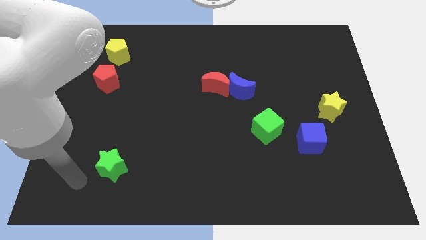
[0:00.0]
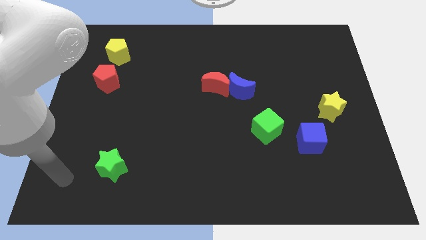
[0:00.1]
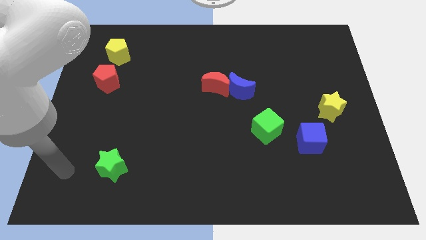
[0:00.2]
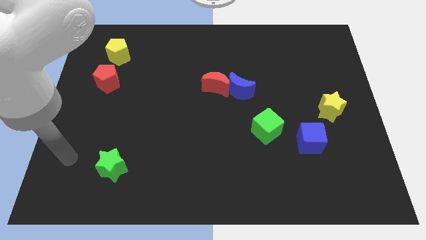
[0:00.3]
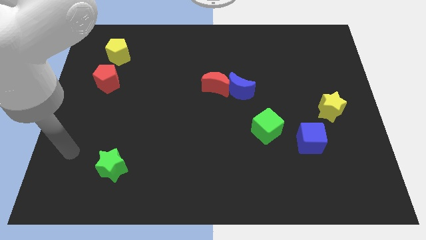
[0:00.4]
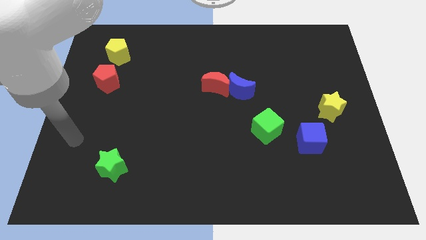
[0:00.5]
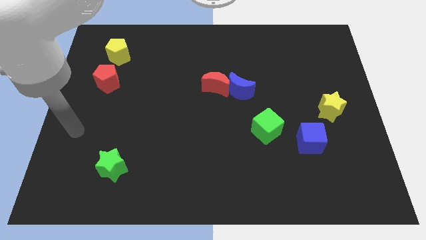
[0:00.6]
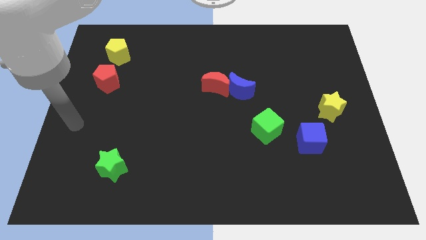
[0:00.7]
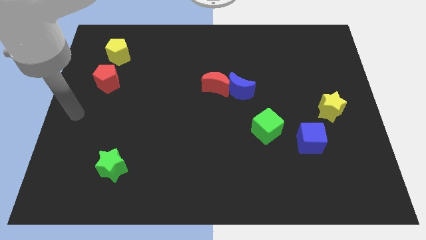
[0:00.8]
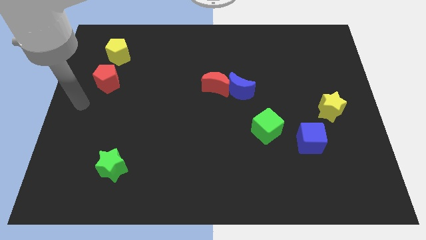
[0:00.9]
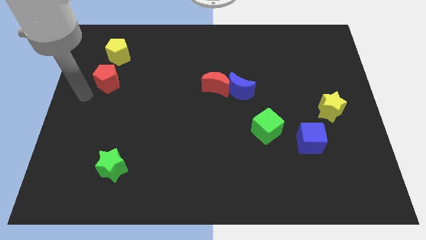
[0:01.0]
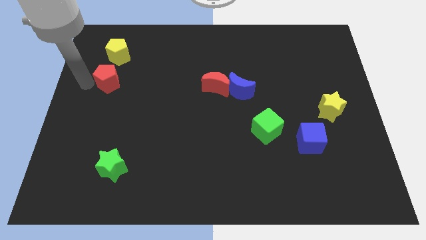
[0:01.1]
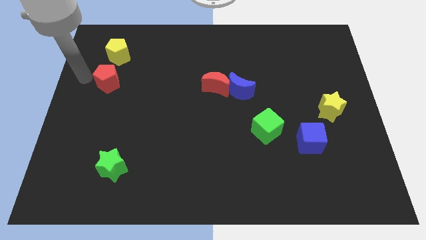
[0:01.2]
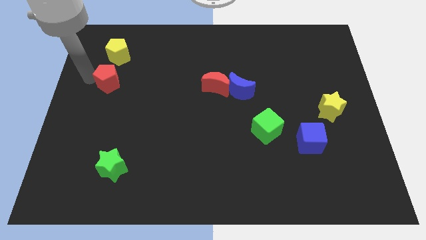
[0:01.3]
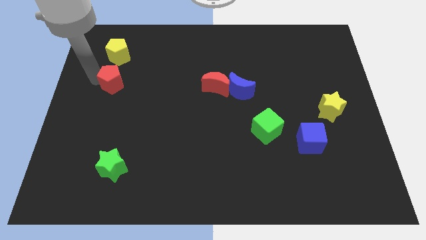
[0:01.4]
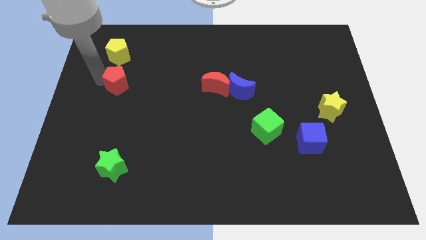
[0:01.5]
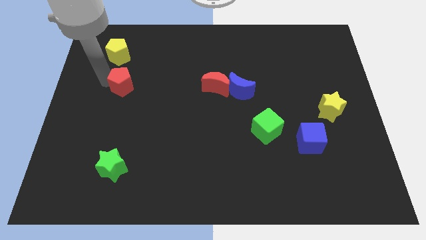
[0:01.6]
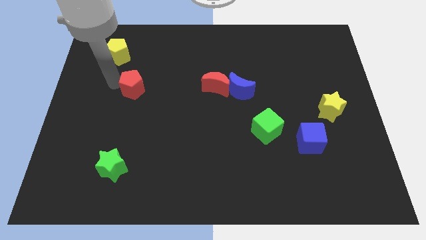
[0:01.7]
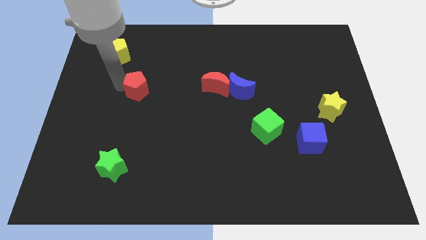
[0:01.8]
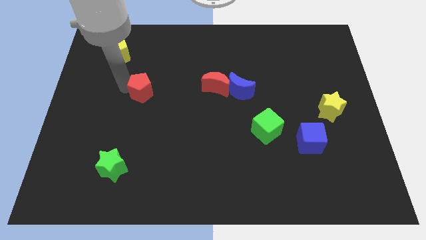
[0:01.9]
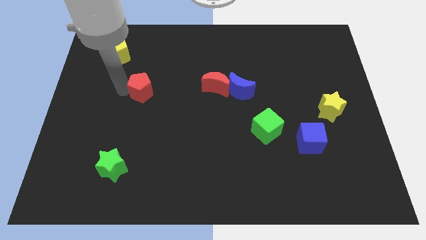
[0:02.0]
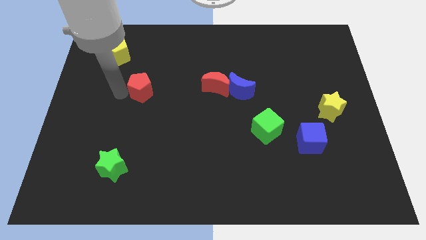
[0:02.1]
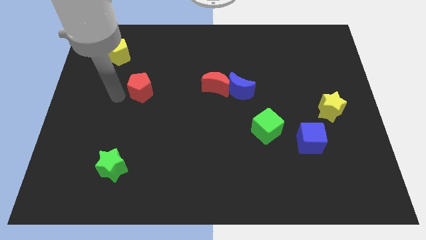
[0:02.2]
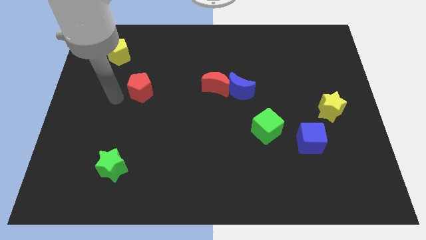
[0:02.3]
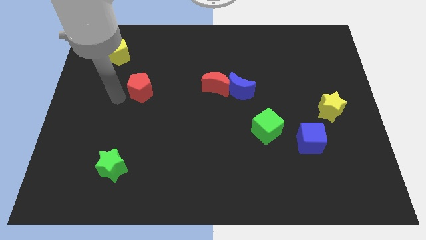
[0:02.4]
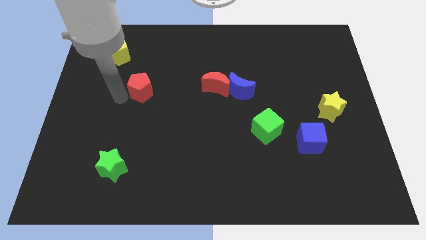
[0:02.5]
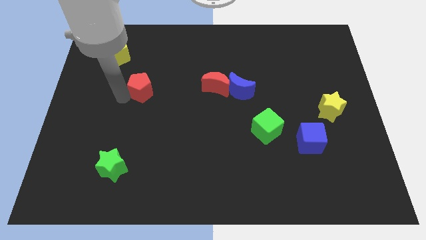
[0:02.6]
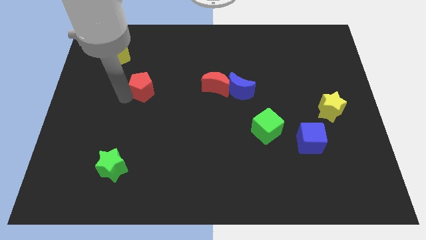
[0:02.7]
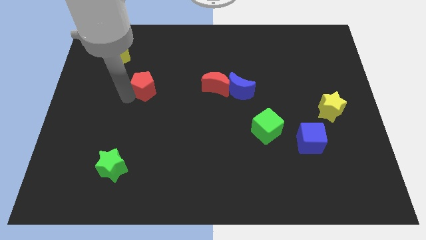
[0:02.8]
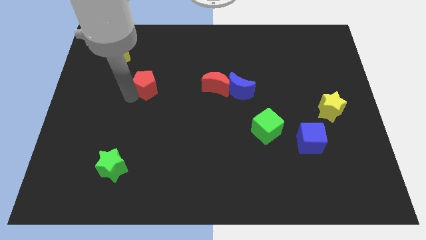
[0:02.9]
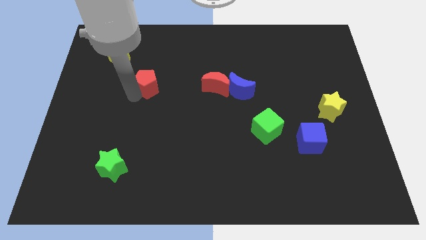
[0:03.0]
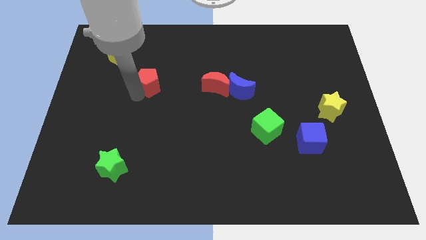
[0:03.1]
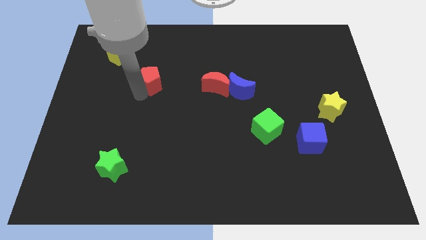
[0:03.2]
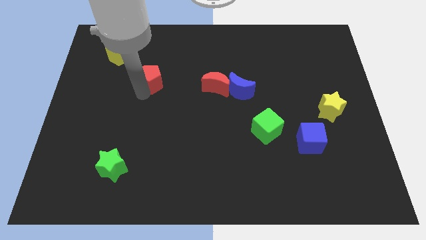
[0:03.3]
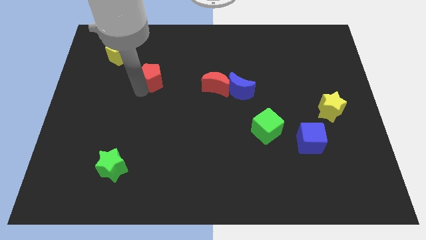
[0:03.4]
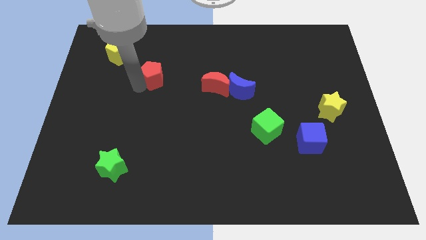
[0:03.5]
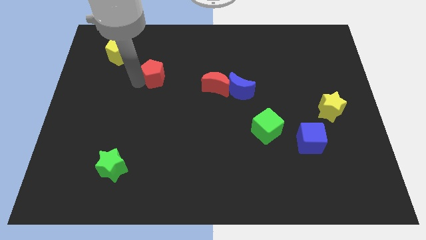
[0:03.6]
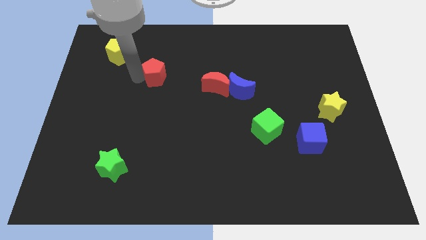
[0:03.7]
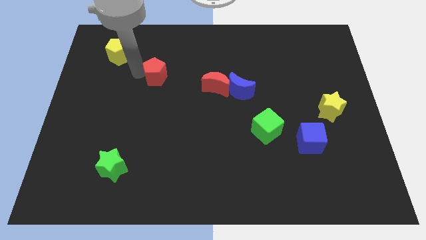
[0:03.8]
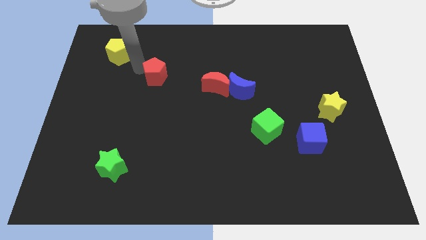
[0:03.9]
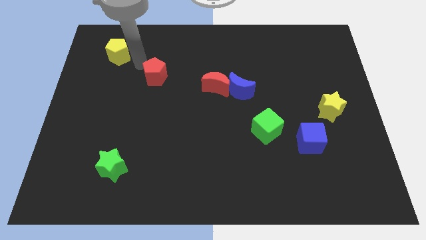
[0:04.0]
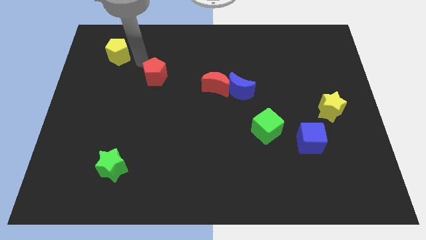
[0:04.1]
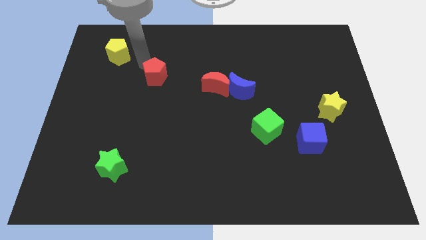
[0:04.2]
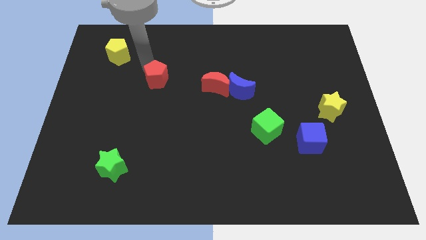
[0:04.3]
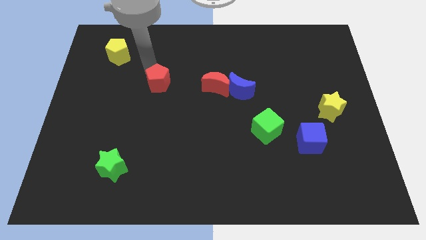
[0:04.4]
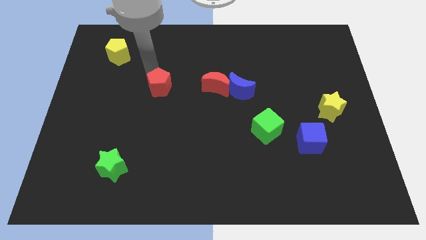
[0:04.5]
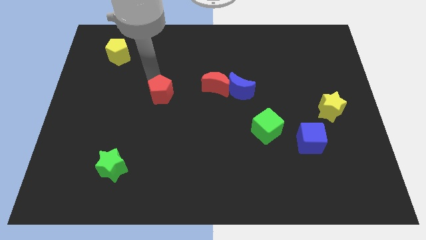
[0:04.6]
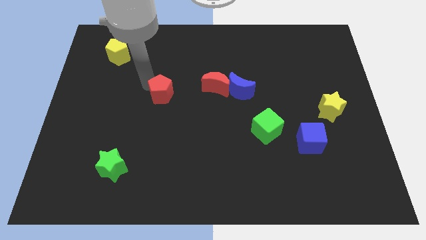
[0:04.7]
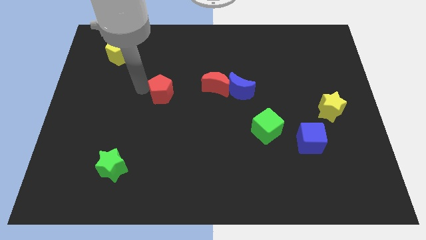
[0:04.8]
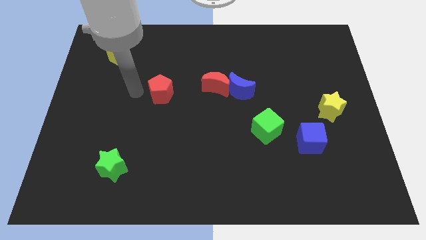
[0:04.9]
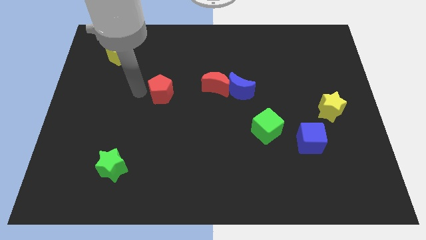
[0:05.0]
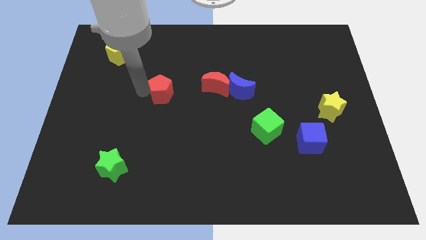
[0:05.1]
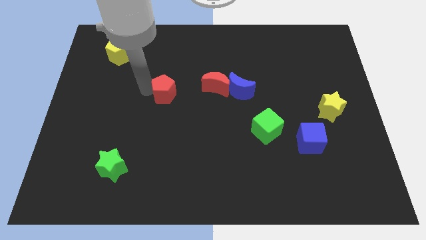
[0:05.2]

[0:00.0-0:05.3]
slide the red pentagon to the center

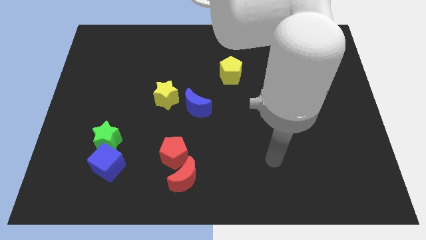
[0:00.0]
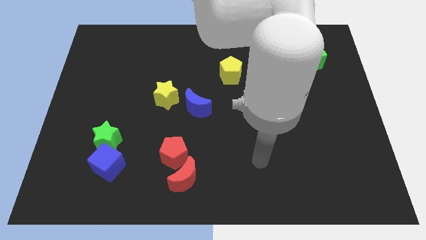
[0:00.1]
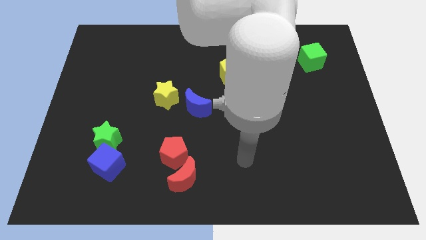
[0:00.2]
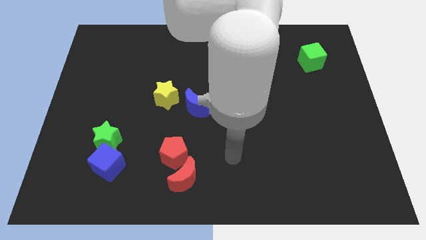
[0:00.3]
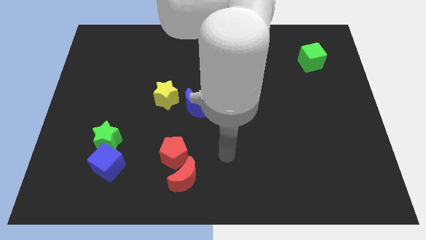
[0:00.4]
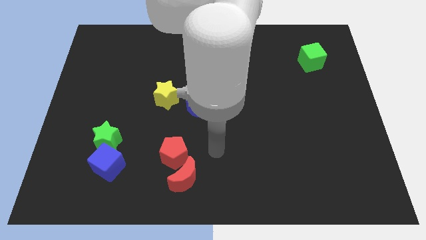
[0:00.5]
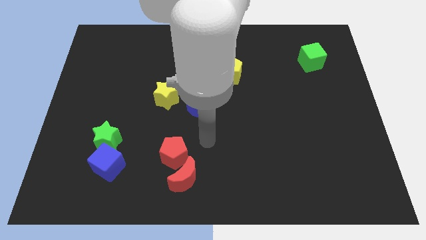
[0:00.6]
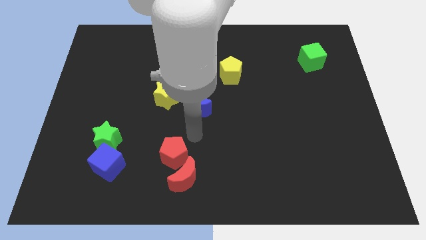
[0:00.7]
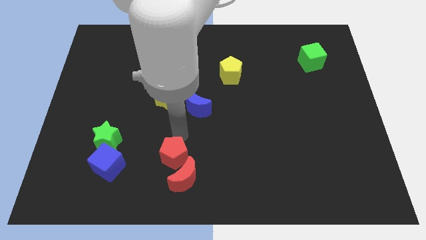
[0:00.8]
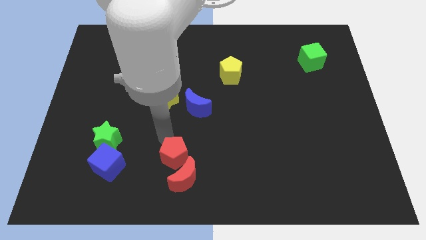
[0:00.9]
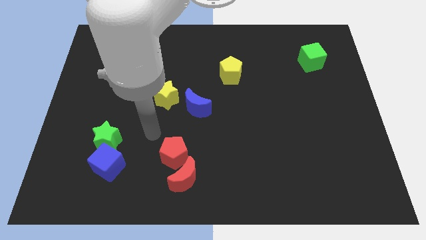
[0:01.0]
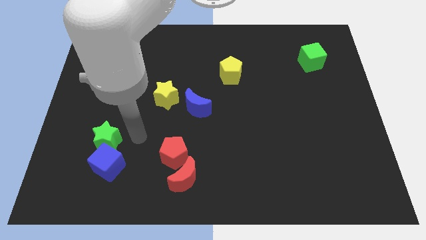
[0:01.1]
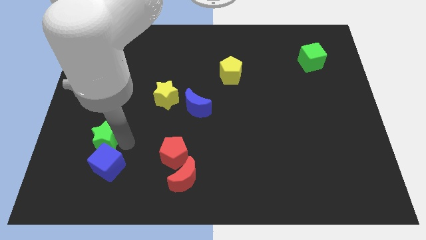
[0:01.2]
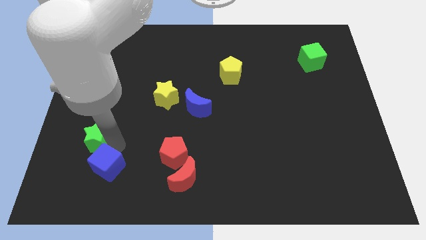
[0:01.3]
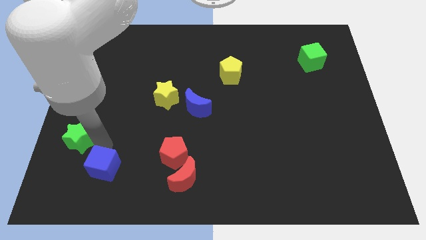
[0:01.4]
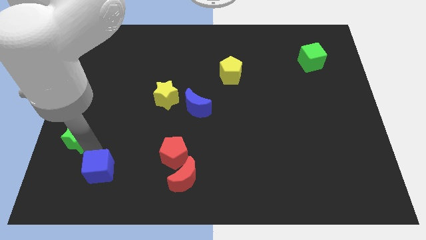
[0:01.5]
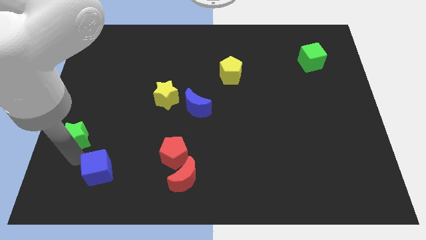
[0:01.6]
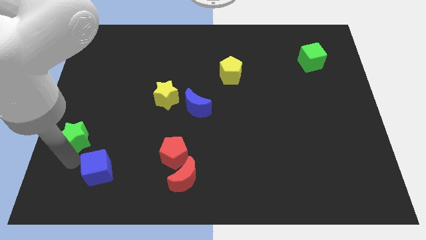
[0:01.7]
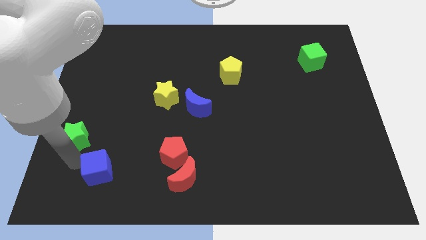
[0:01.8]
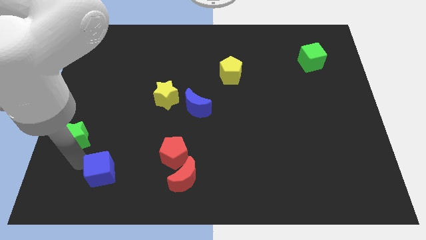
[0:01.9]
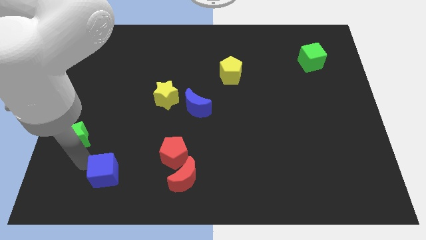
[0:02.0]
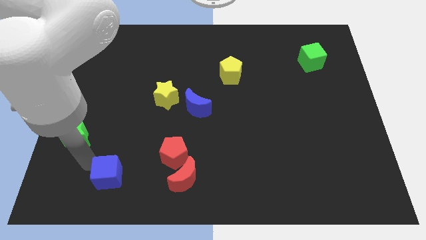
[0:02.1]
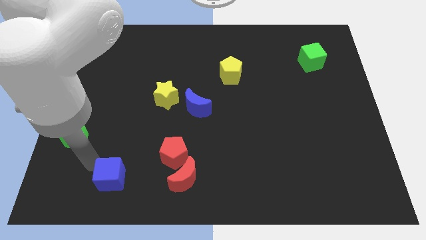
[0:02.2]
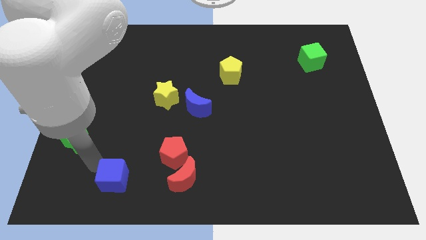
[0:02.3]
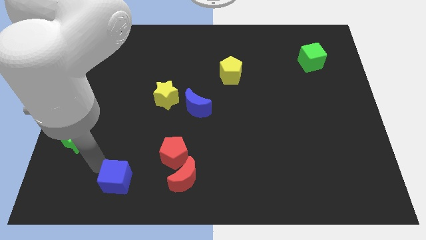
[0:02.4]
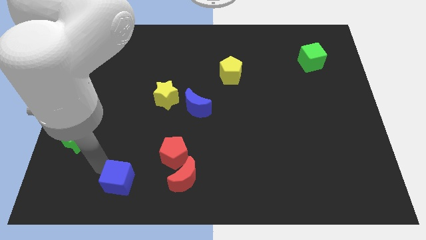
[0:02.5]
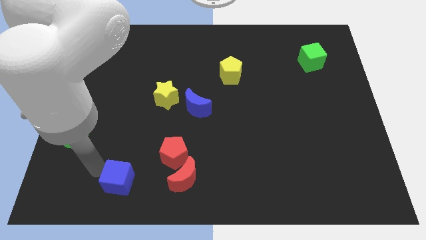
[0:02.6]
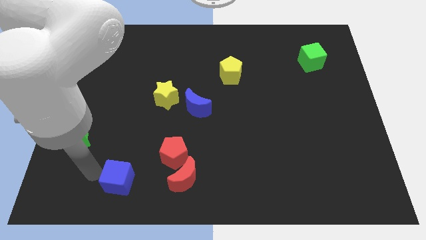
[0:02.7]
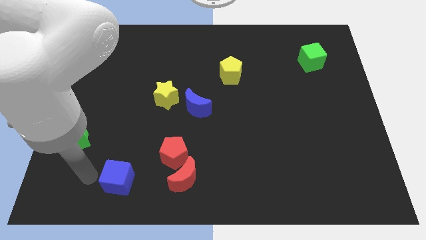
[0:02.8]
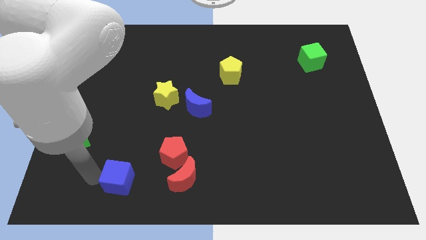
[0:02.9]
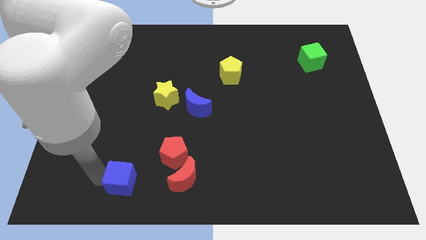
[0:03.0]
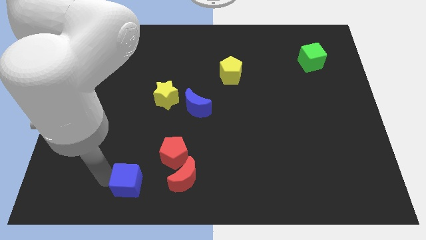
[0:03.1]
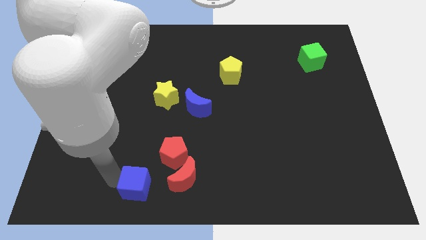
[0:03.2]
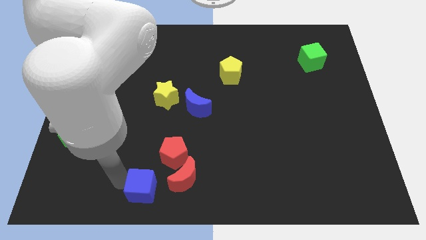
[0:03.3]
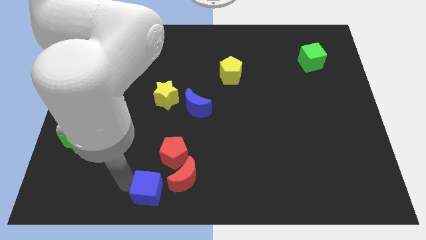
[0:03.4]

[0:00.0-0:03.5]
move the blue cube to the bottom
